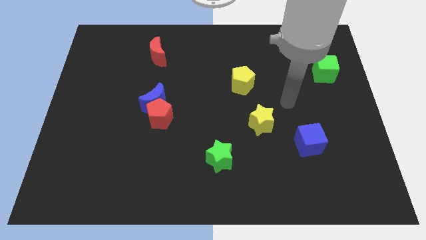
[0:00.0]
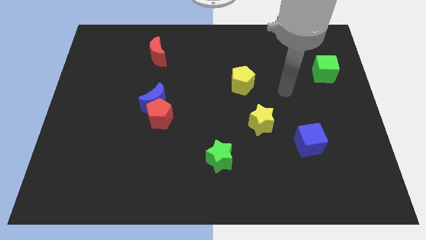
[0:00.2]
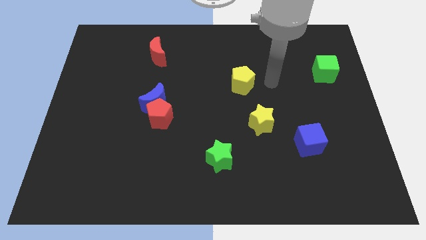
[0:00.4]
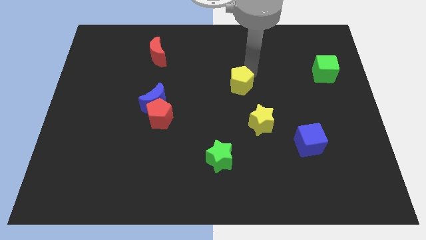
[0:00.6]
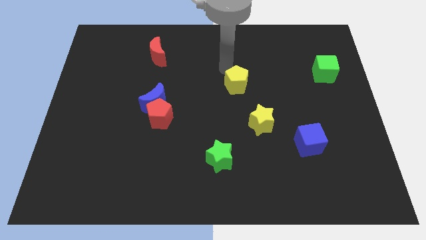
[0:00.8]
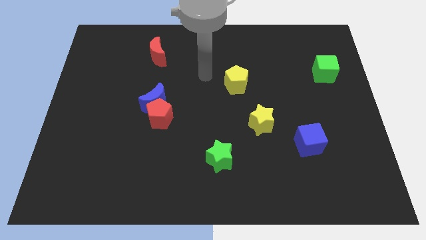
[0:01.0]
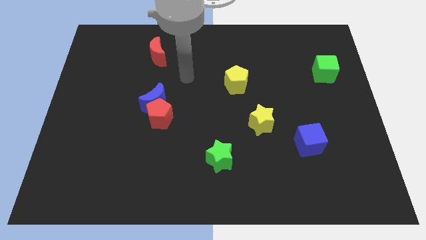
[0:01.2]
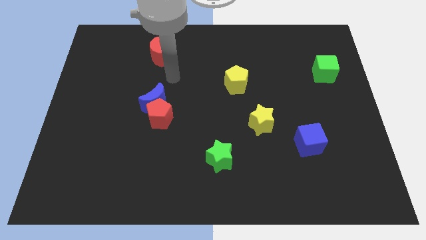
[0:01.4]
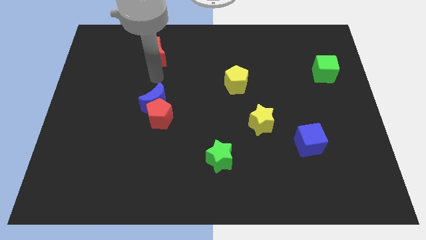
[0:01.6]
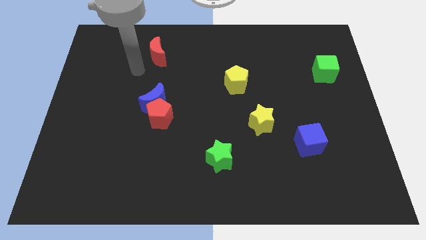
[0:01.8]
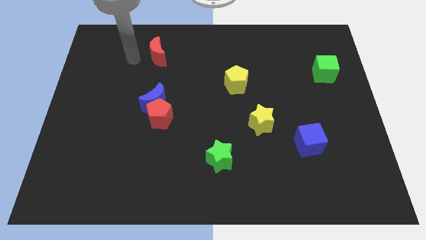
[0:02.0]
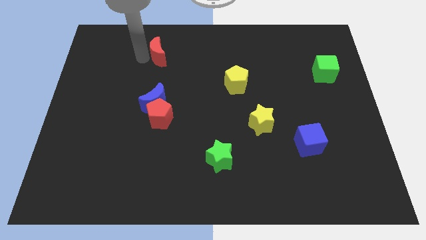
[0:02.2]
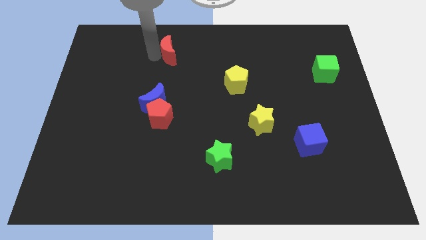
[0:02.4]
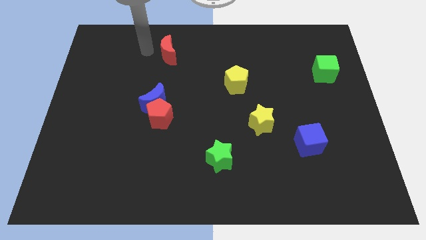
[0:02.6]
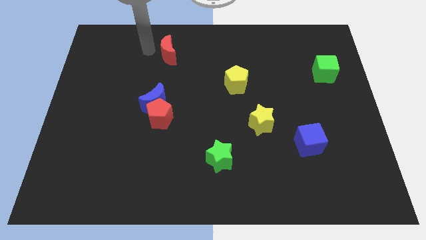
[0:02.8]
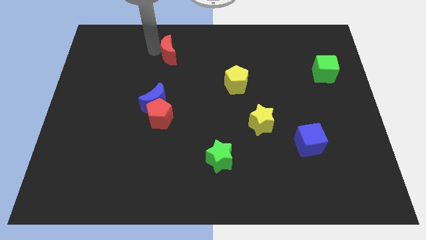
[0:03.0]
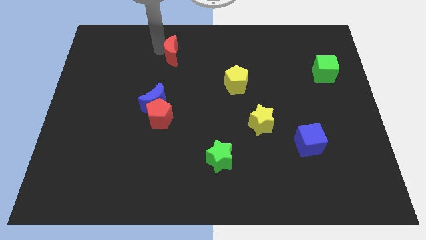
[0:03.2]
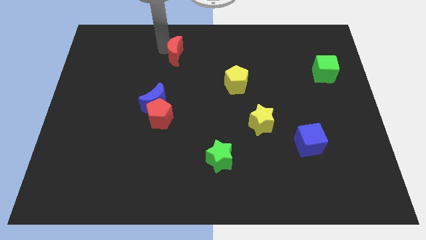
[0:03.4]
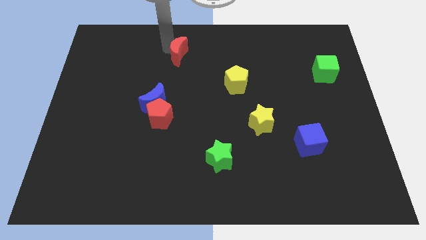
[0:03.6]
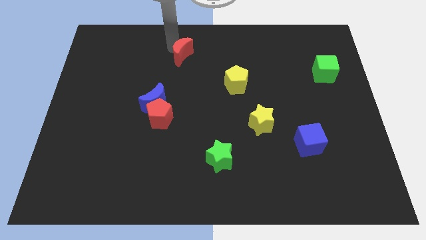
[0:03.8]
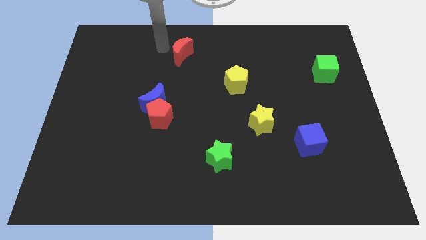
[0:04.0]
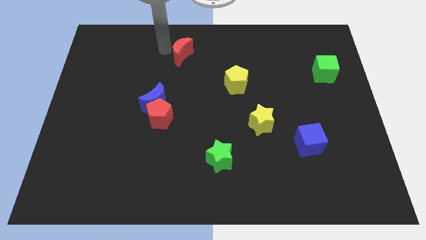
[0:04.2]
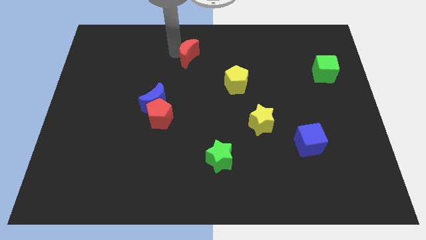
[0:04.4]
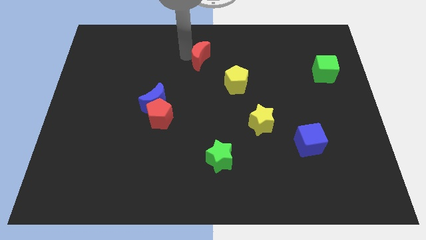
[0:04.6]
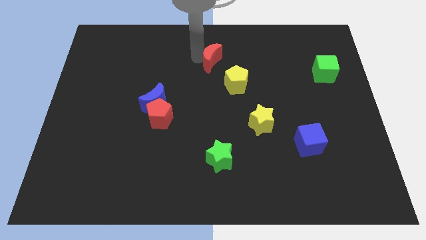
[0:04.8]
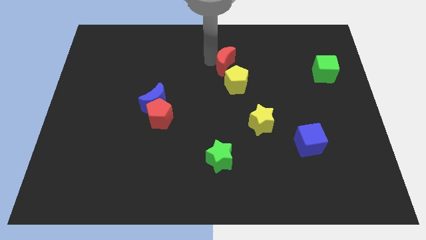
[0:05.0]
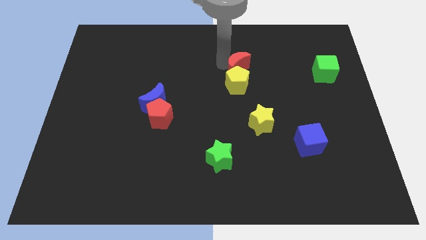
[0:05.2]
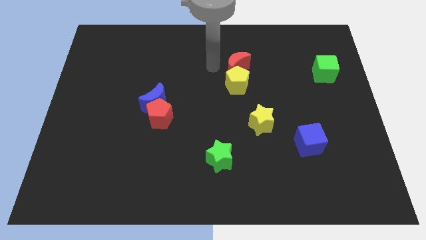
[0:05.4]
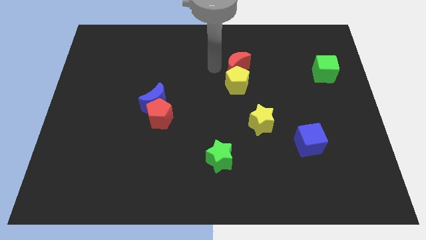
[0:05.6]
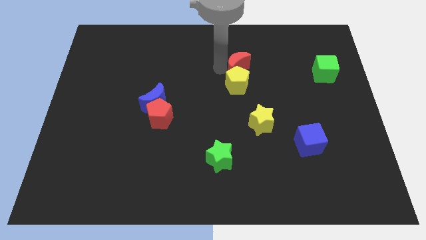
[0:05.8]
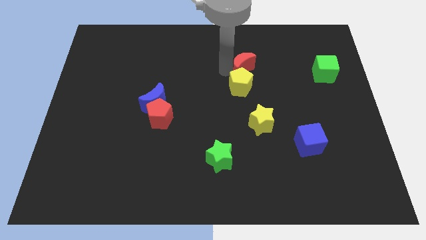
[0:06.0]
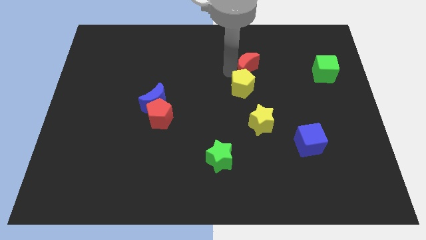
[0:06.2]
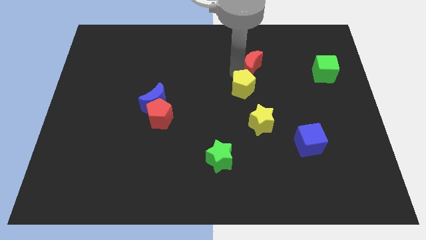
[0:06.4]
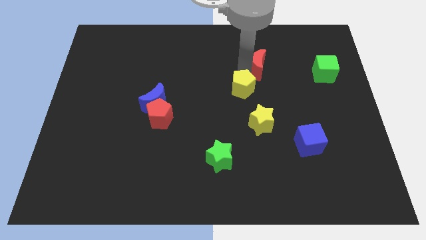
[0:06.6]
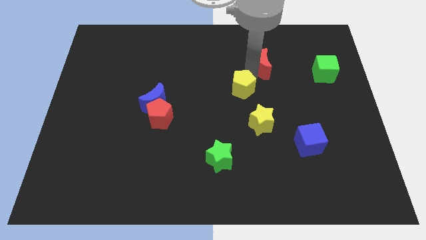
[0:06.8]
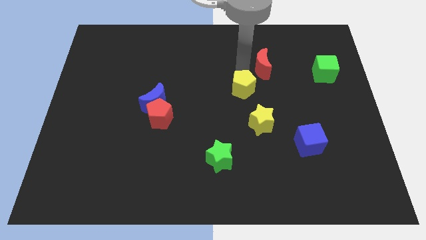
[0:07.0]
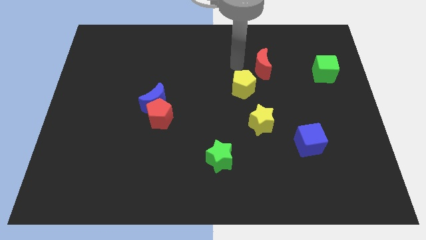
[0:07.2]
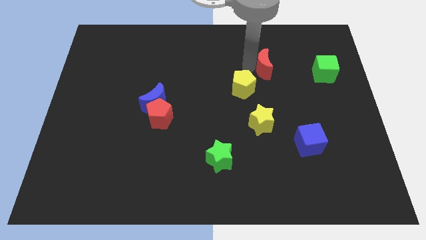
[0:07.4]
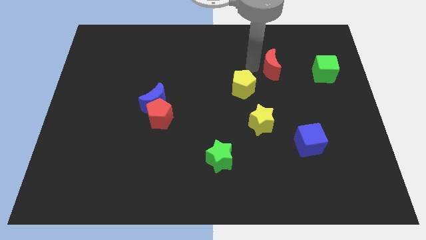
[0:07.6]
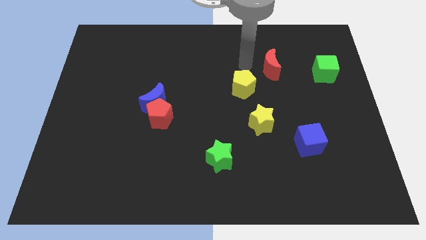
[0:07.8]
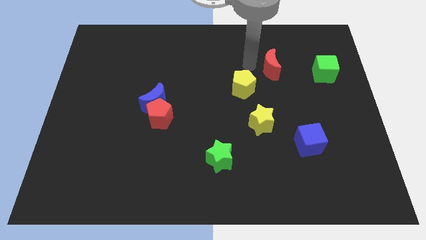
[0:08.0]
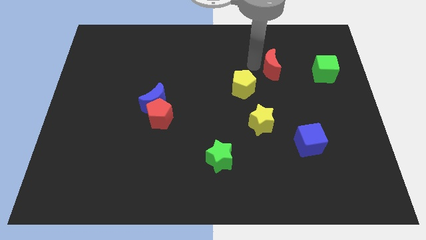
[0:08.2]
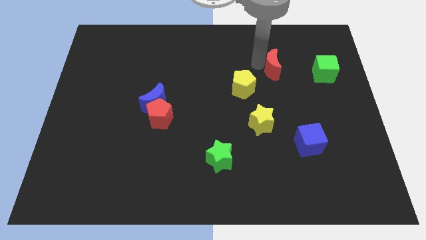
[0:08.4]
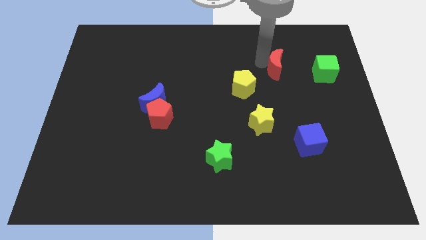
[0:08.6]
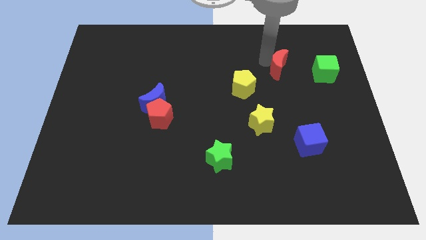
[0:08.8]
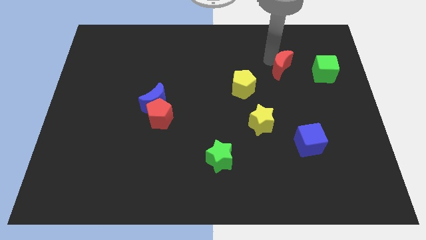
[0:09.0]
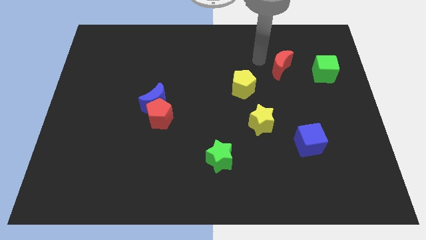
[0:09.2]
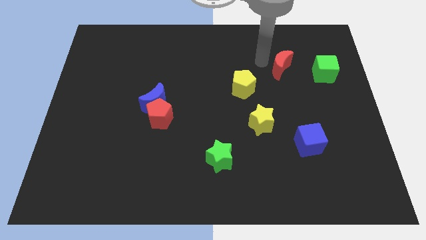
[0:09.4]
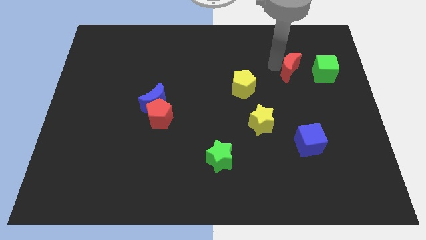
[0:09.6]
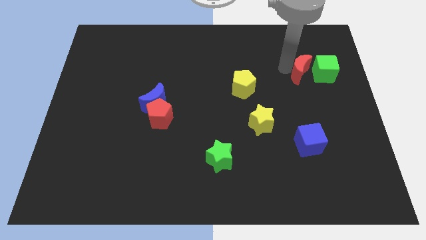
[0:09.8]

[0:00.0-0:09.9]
put the red moon close to the green cube

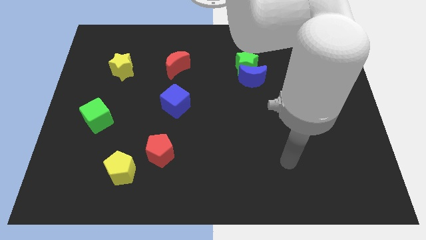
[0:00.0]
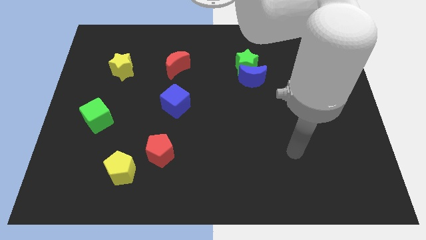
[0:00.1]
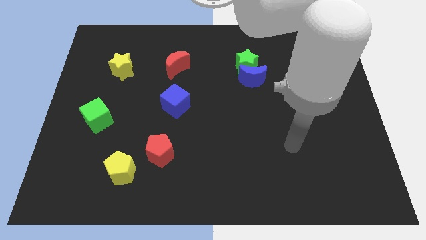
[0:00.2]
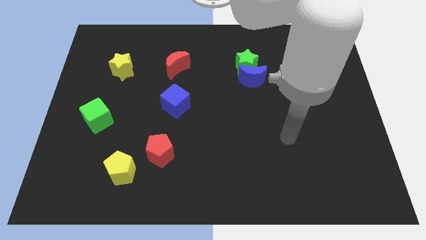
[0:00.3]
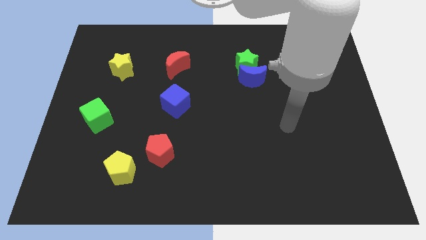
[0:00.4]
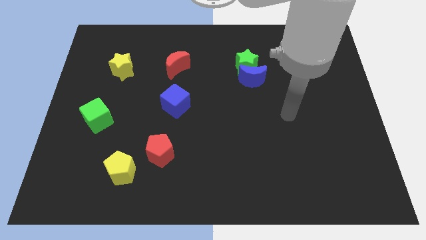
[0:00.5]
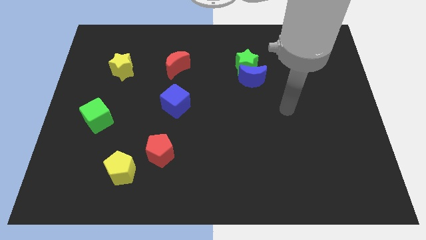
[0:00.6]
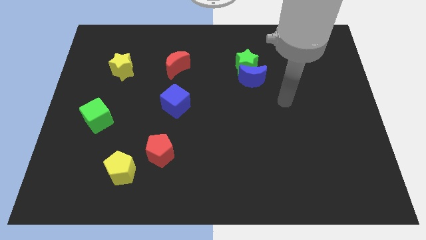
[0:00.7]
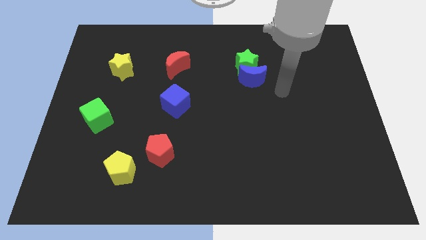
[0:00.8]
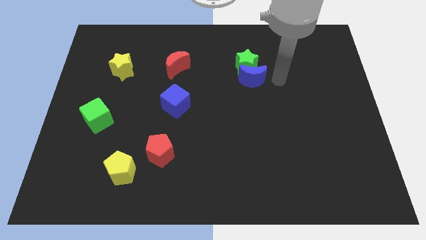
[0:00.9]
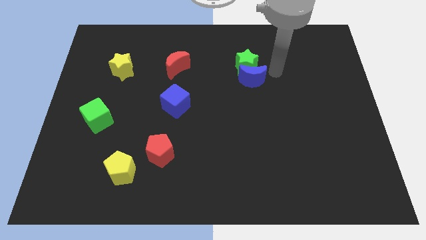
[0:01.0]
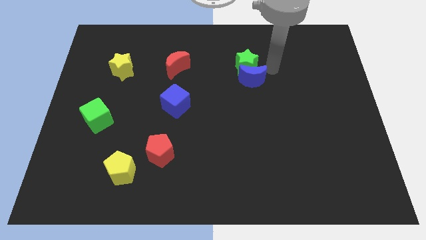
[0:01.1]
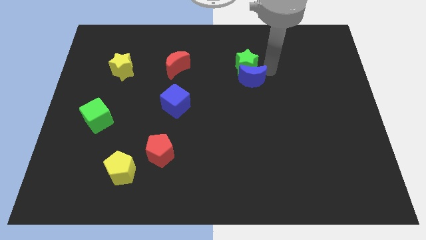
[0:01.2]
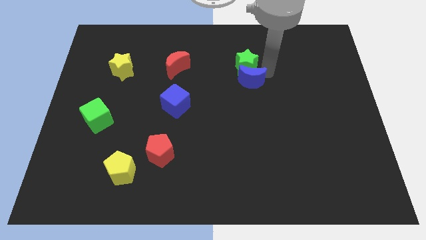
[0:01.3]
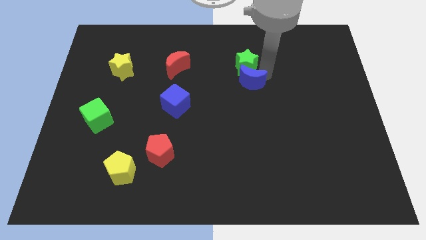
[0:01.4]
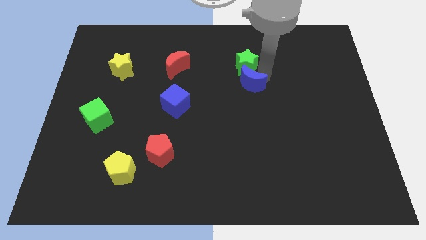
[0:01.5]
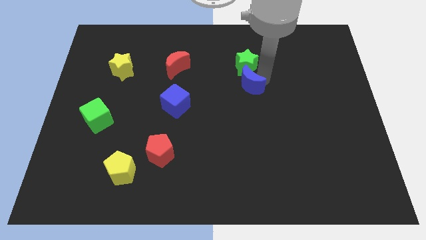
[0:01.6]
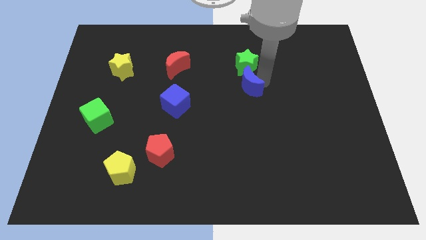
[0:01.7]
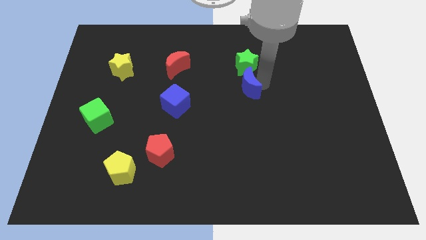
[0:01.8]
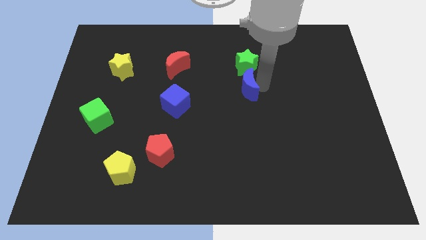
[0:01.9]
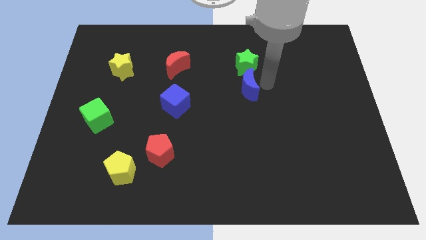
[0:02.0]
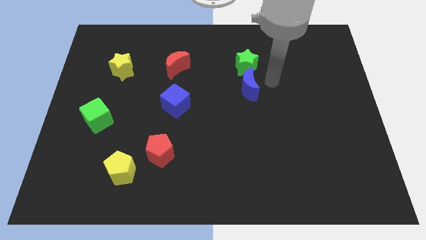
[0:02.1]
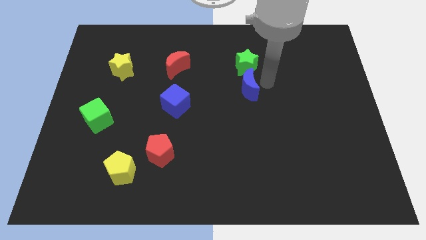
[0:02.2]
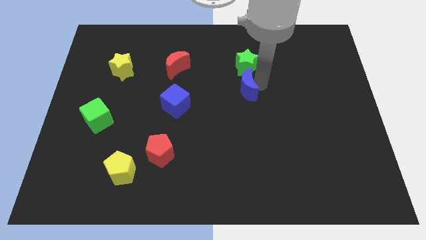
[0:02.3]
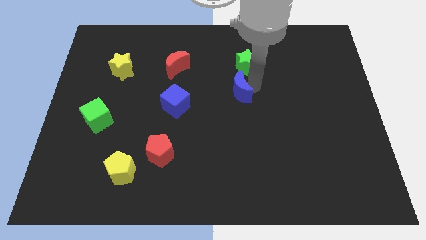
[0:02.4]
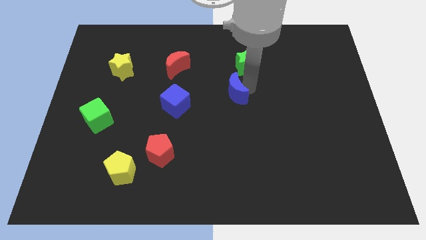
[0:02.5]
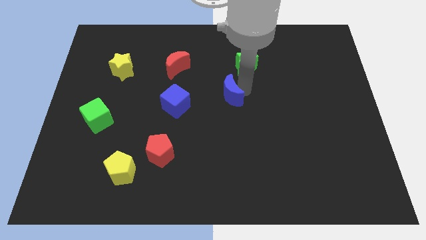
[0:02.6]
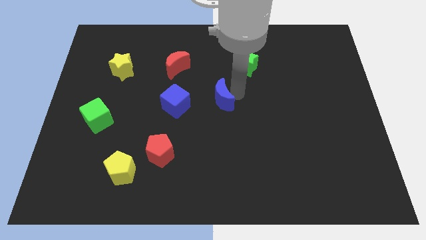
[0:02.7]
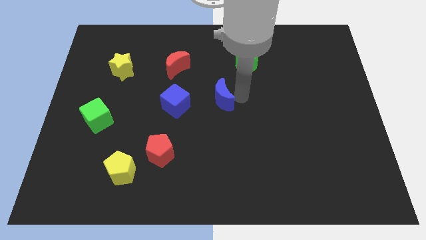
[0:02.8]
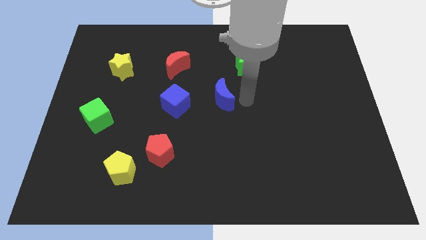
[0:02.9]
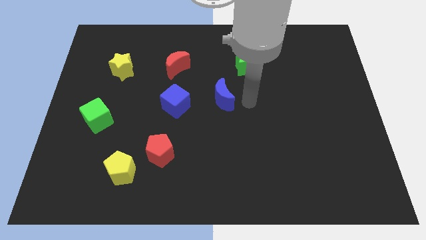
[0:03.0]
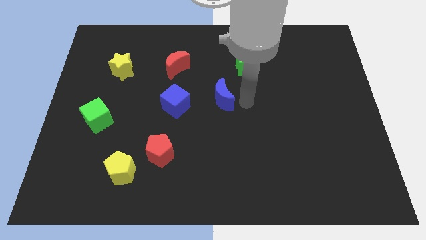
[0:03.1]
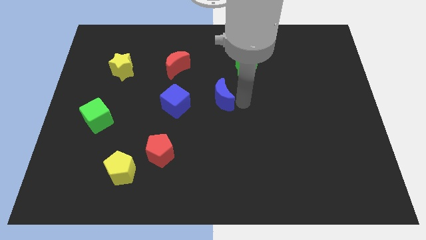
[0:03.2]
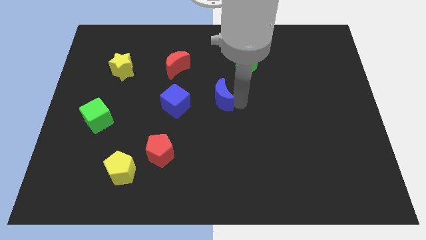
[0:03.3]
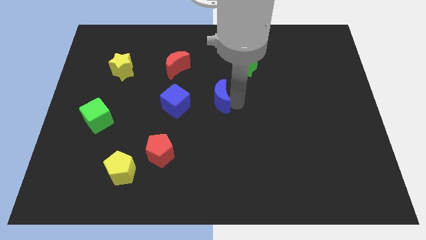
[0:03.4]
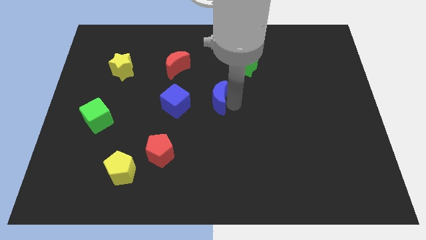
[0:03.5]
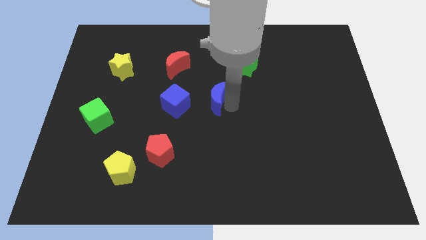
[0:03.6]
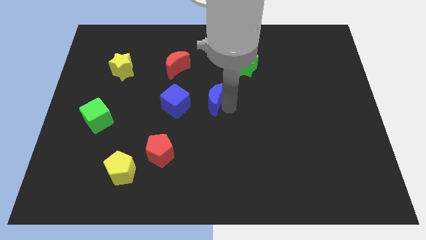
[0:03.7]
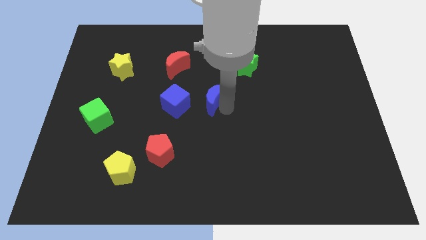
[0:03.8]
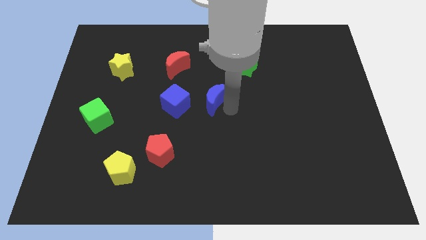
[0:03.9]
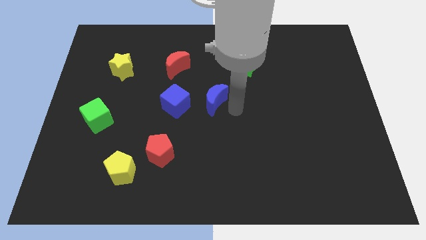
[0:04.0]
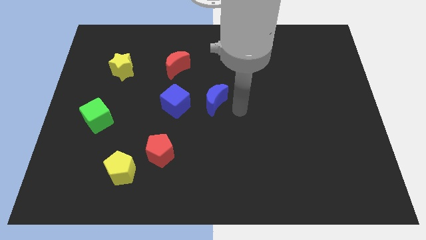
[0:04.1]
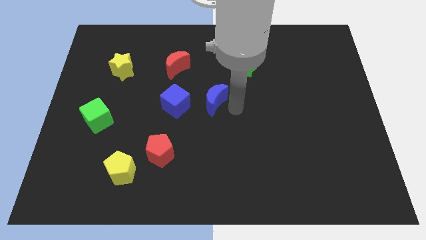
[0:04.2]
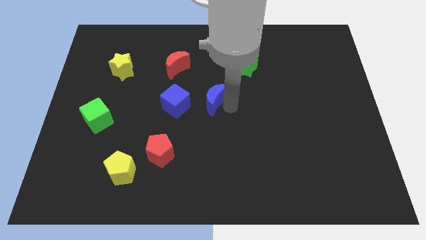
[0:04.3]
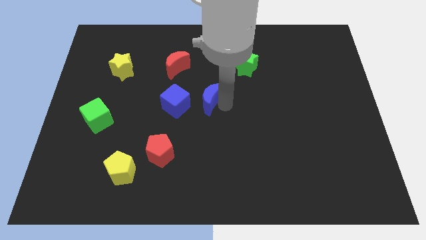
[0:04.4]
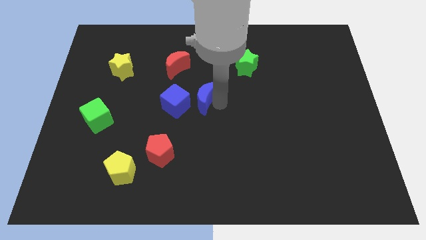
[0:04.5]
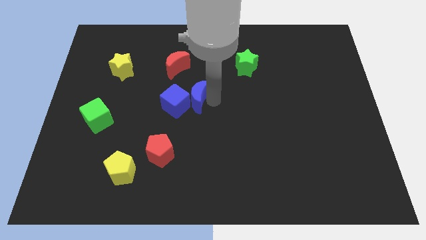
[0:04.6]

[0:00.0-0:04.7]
put the blue moon to the blue cube
